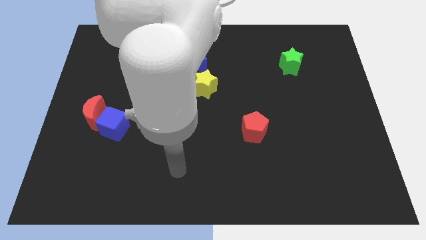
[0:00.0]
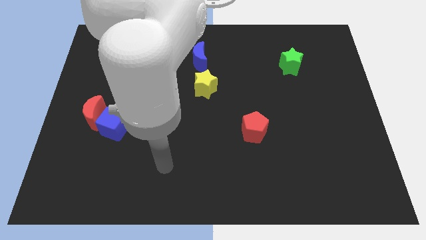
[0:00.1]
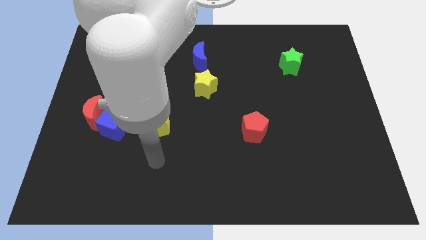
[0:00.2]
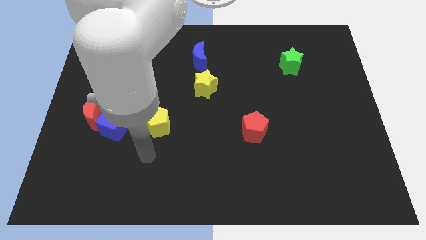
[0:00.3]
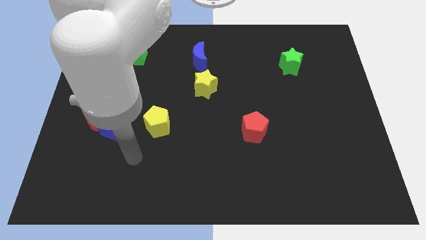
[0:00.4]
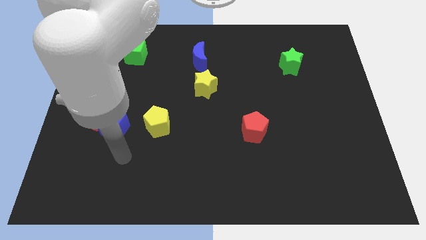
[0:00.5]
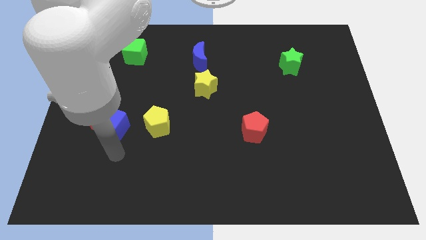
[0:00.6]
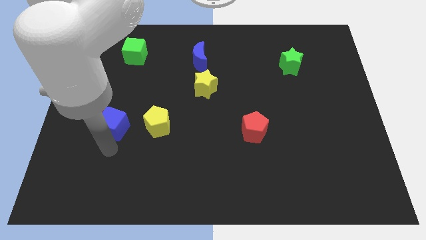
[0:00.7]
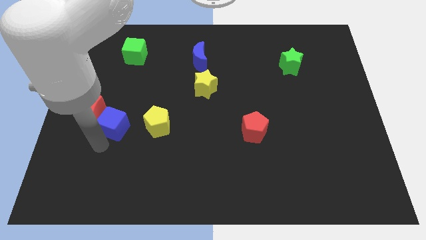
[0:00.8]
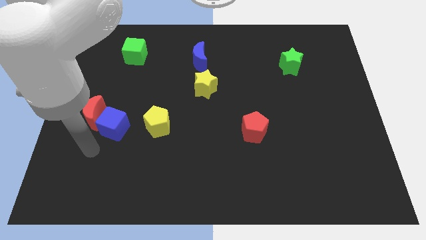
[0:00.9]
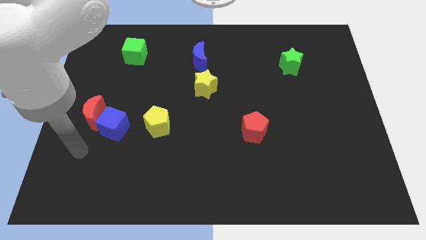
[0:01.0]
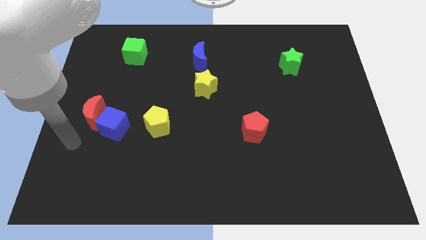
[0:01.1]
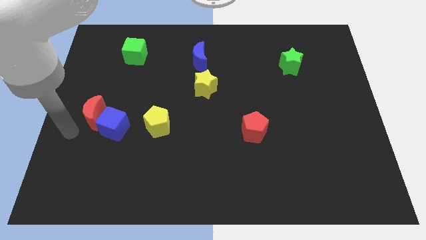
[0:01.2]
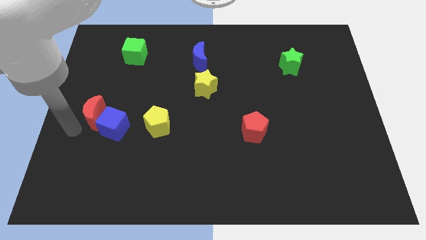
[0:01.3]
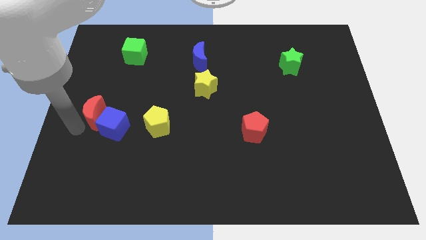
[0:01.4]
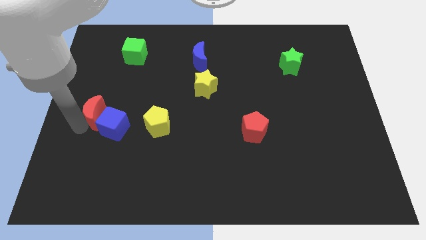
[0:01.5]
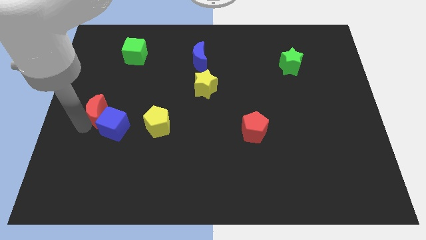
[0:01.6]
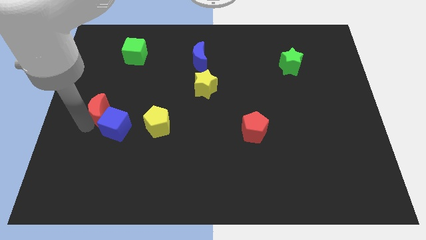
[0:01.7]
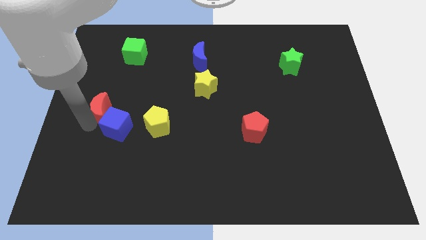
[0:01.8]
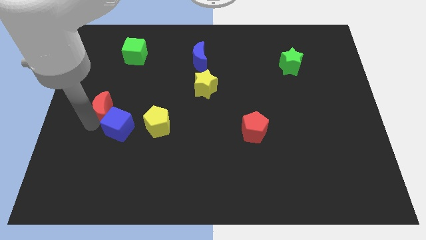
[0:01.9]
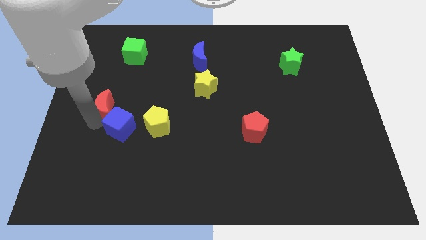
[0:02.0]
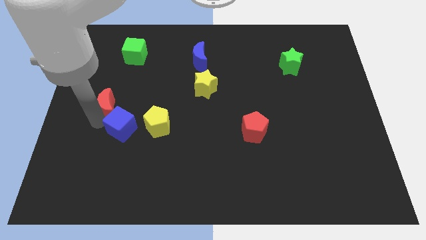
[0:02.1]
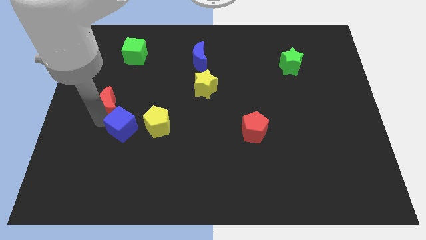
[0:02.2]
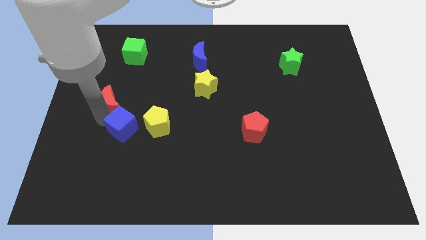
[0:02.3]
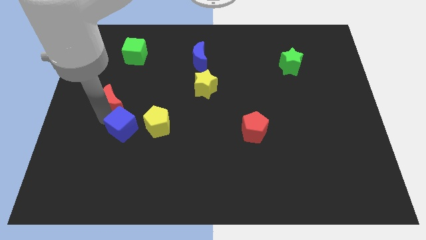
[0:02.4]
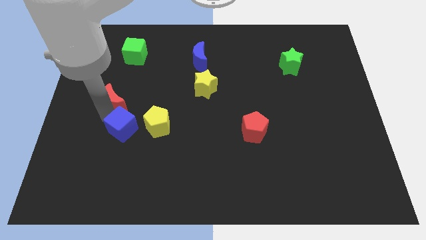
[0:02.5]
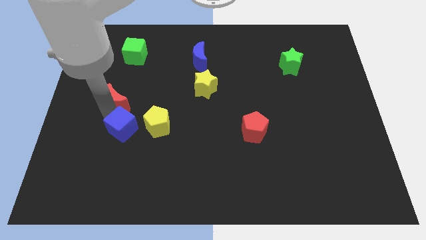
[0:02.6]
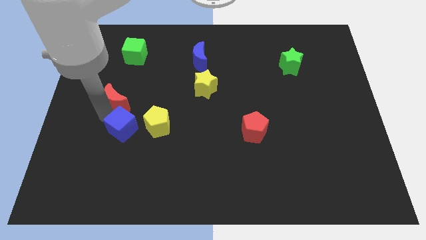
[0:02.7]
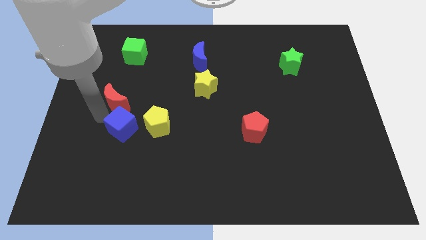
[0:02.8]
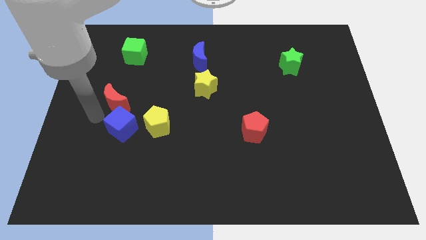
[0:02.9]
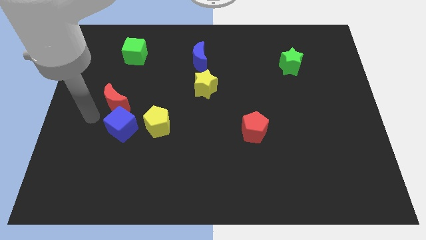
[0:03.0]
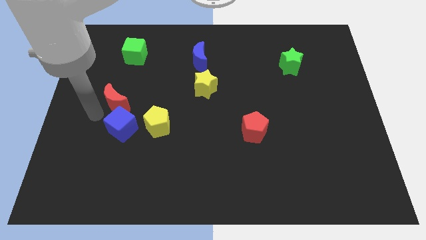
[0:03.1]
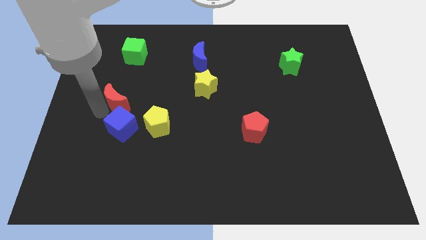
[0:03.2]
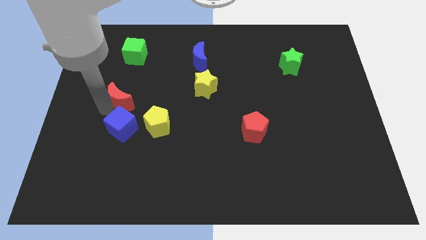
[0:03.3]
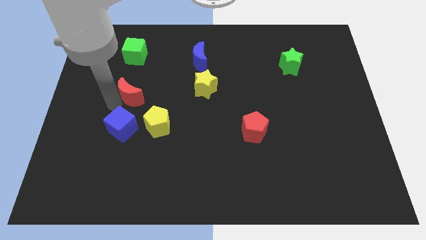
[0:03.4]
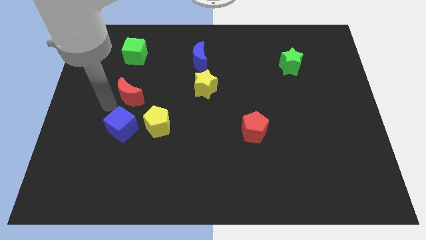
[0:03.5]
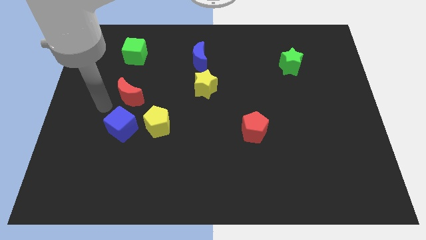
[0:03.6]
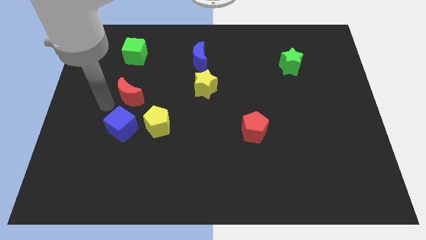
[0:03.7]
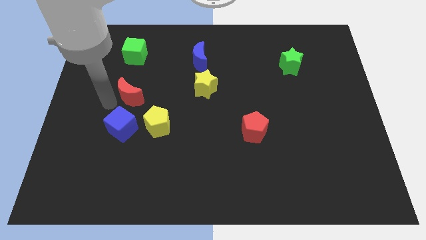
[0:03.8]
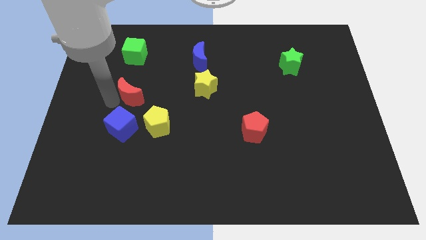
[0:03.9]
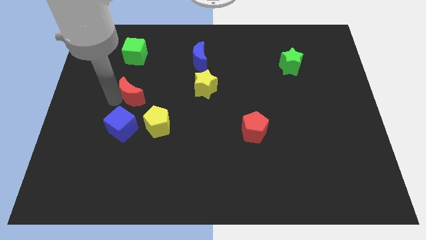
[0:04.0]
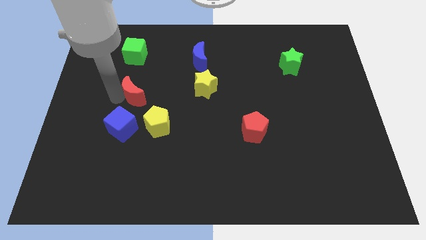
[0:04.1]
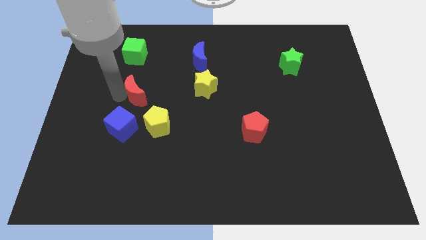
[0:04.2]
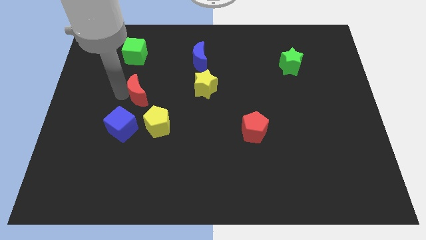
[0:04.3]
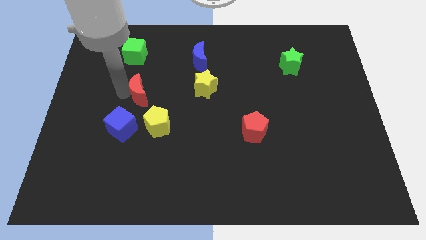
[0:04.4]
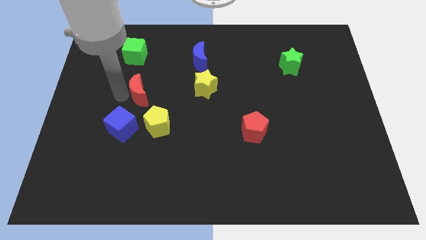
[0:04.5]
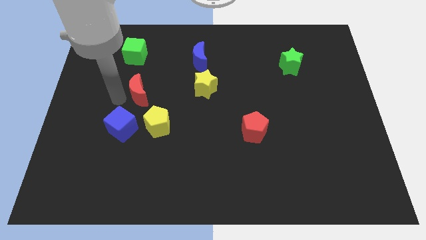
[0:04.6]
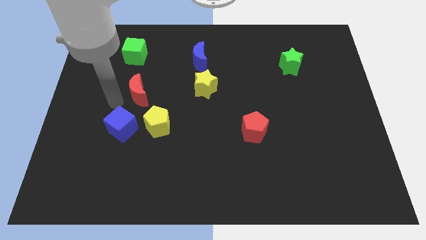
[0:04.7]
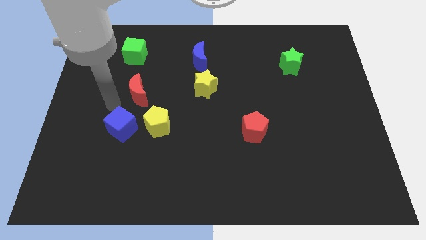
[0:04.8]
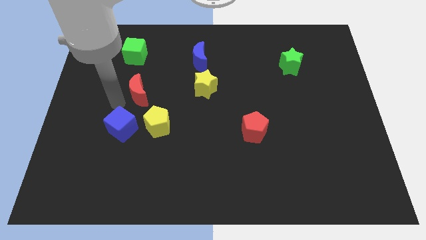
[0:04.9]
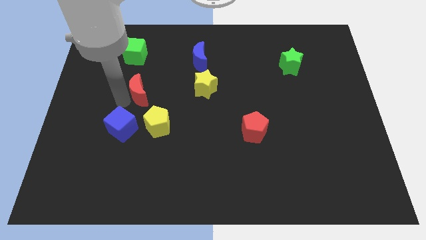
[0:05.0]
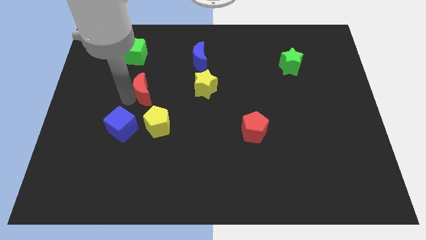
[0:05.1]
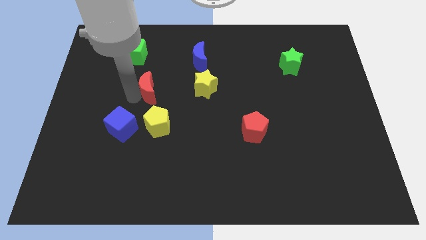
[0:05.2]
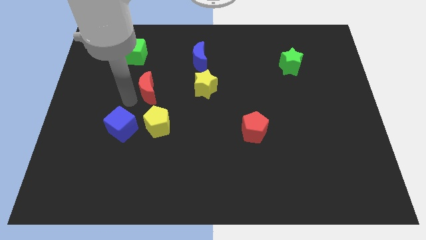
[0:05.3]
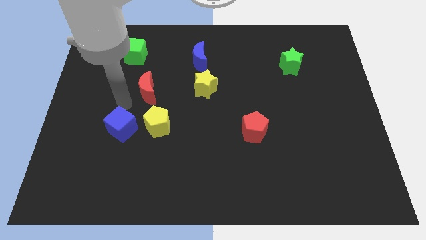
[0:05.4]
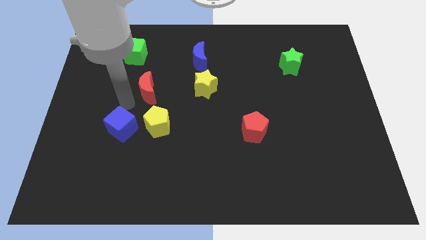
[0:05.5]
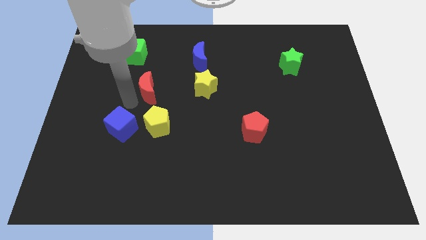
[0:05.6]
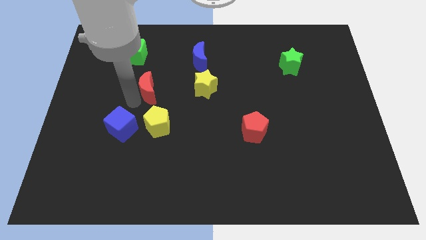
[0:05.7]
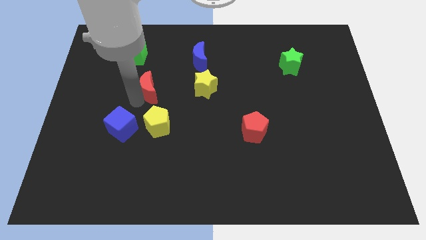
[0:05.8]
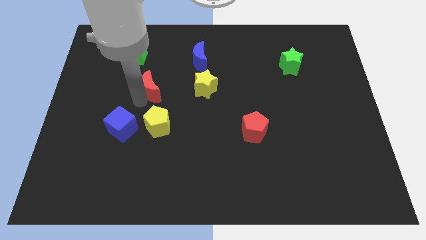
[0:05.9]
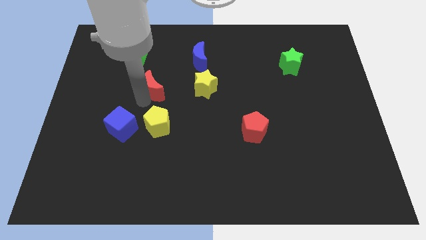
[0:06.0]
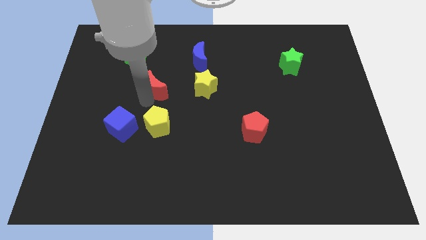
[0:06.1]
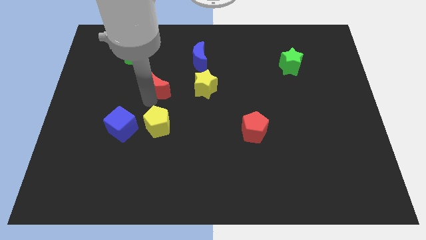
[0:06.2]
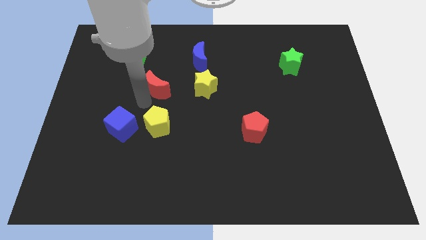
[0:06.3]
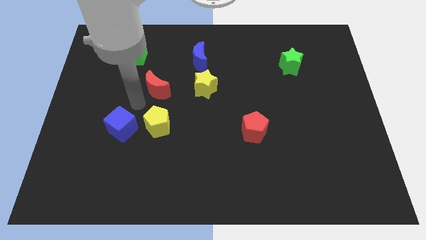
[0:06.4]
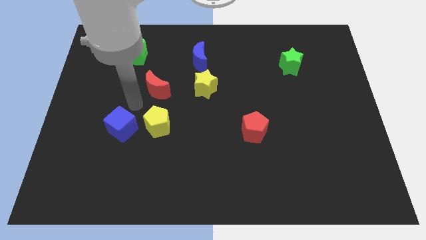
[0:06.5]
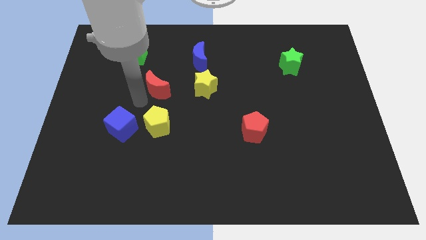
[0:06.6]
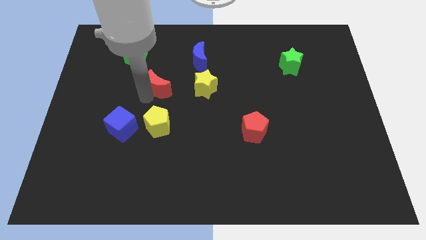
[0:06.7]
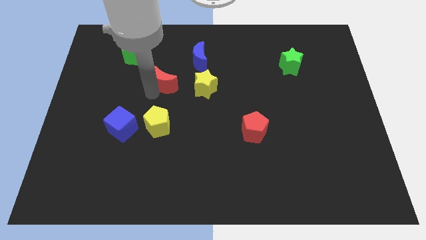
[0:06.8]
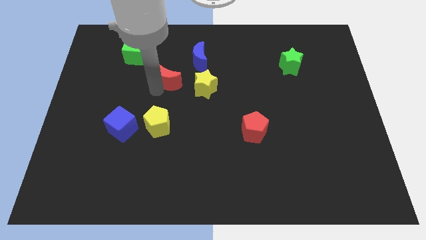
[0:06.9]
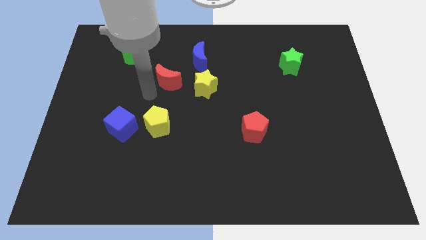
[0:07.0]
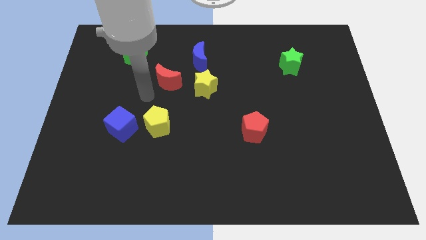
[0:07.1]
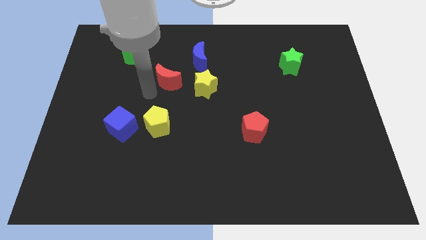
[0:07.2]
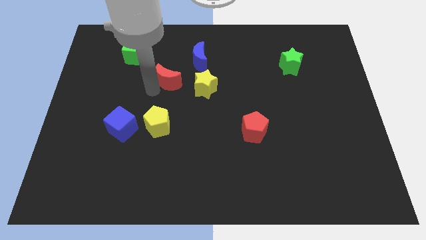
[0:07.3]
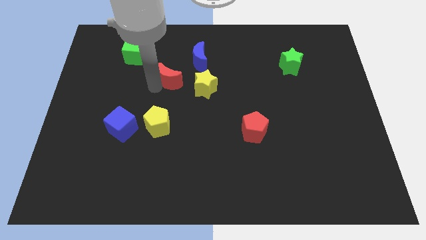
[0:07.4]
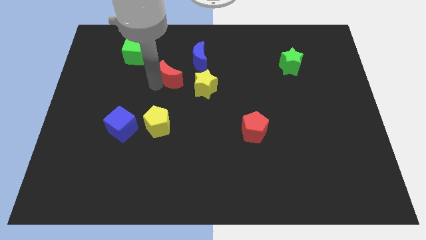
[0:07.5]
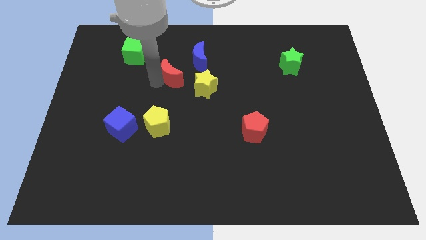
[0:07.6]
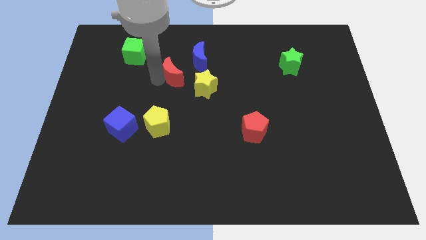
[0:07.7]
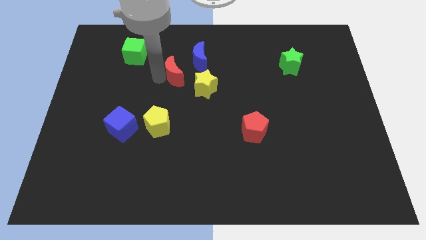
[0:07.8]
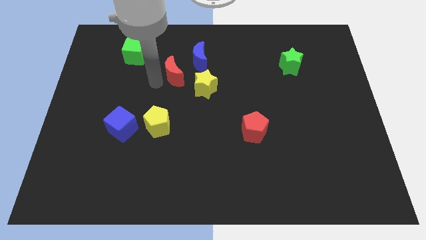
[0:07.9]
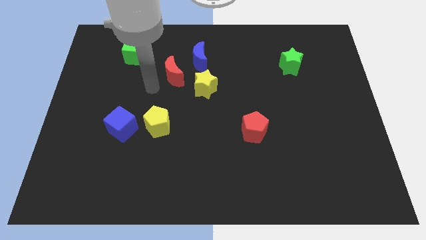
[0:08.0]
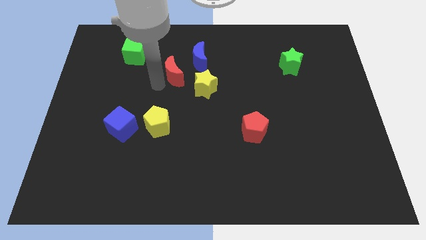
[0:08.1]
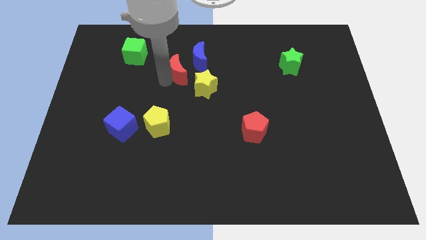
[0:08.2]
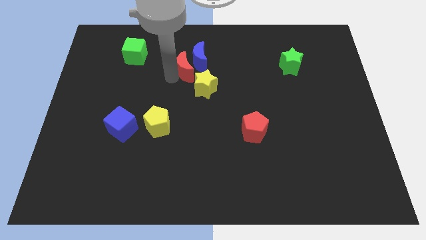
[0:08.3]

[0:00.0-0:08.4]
put the red moon to the blue moon
